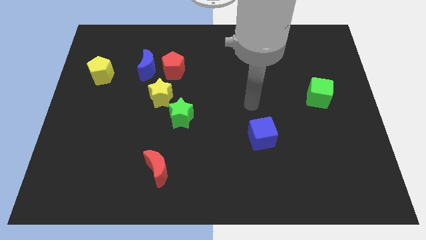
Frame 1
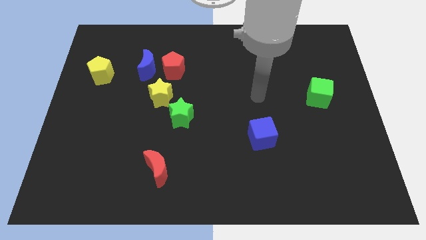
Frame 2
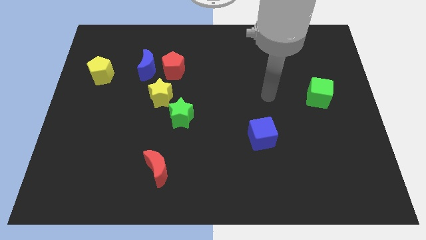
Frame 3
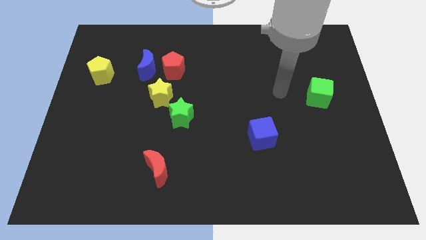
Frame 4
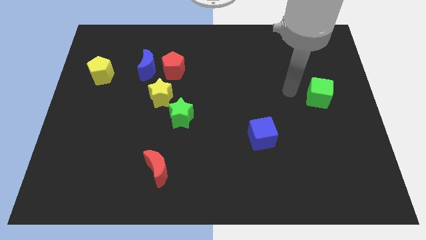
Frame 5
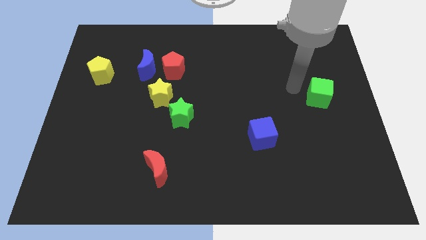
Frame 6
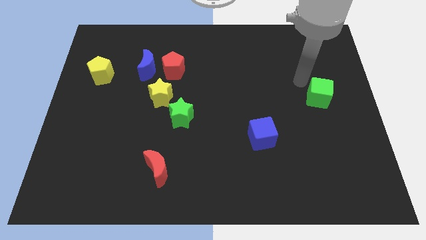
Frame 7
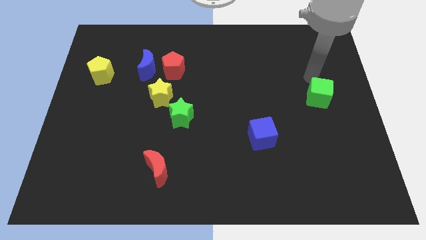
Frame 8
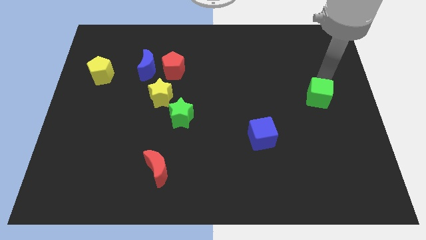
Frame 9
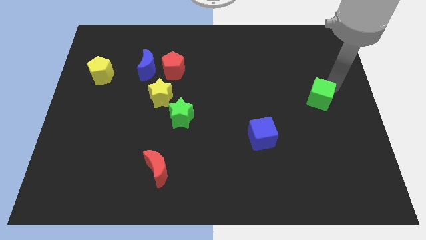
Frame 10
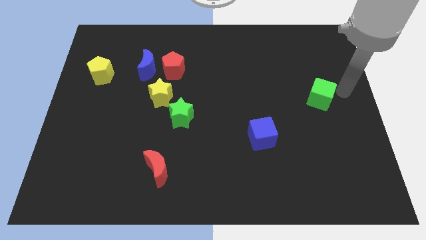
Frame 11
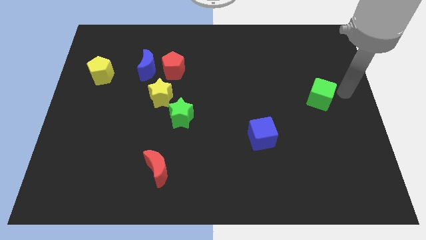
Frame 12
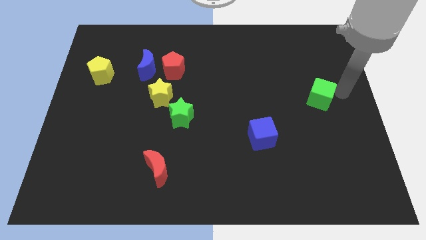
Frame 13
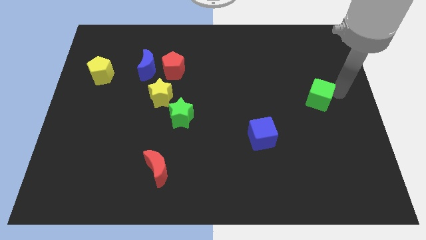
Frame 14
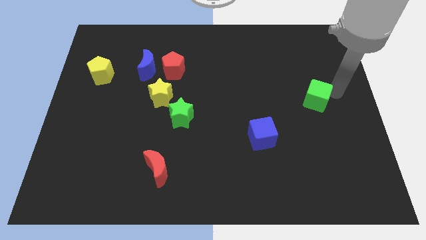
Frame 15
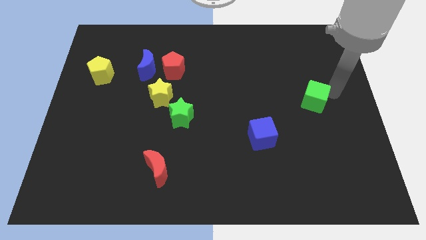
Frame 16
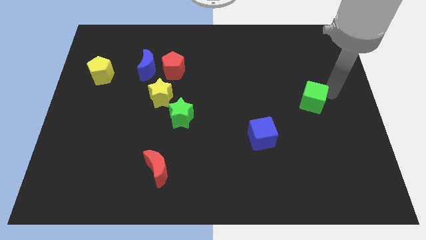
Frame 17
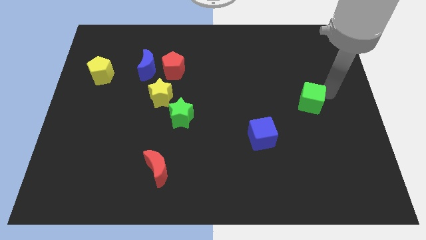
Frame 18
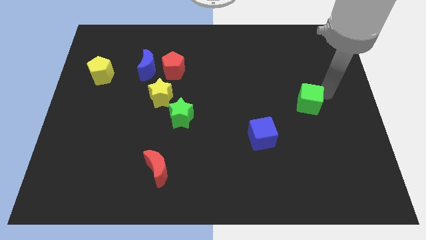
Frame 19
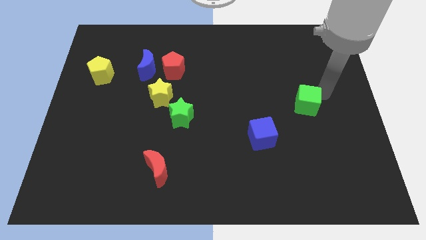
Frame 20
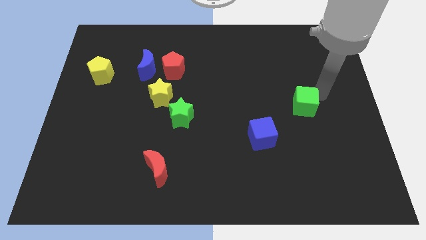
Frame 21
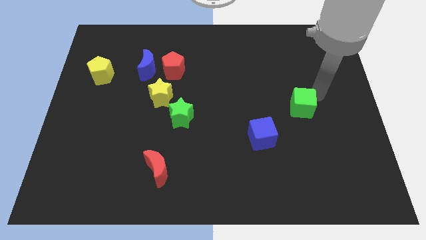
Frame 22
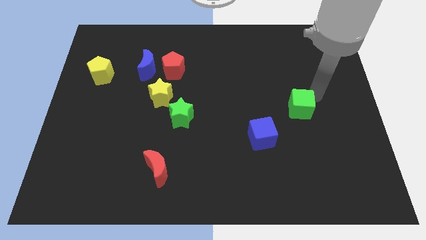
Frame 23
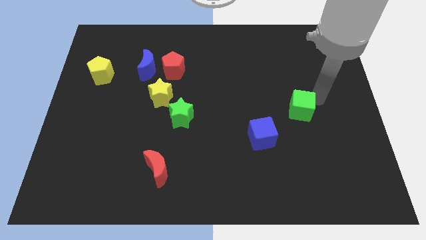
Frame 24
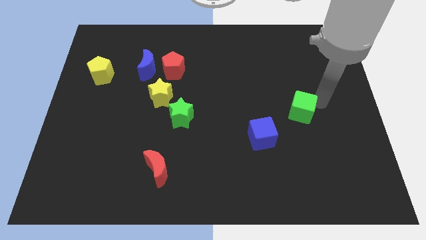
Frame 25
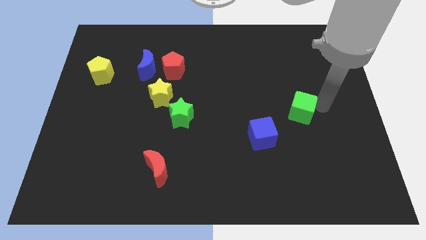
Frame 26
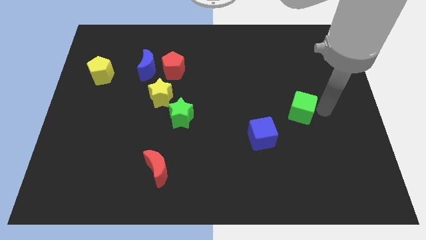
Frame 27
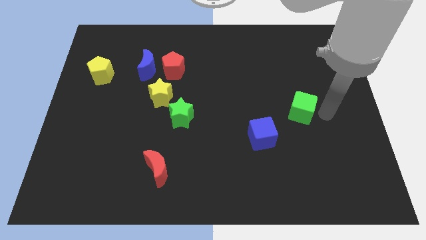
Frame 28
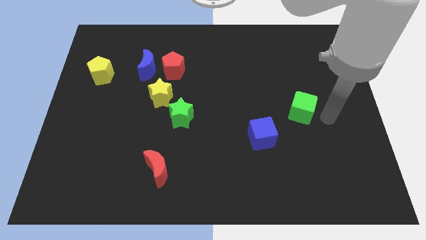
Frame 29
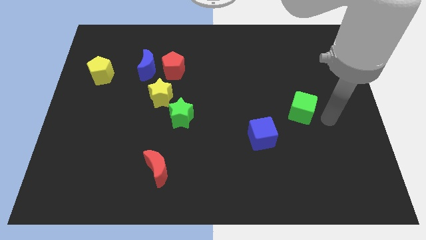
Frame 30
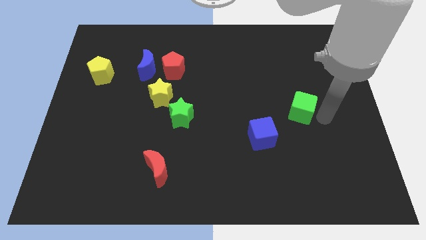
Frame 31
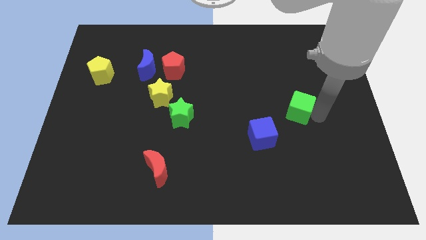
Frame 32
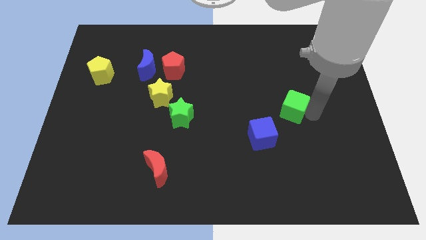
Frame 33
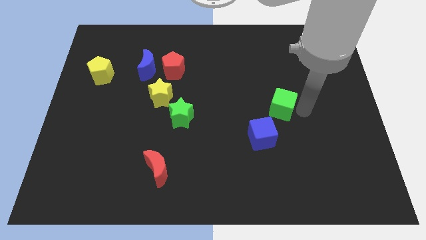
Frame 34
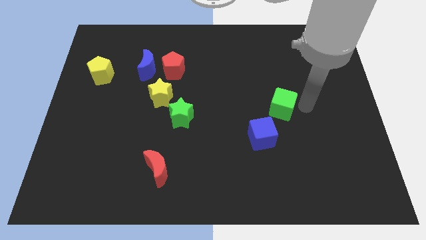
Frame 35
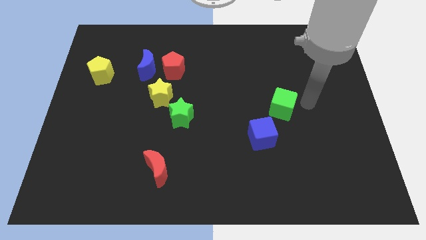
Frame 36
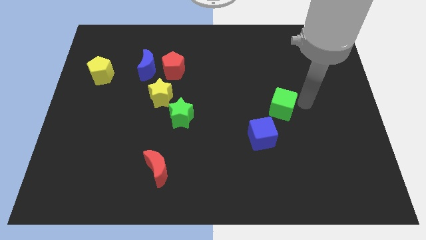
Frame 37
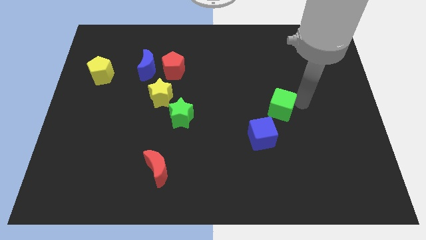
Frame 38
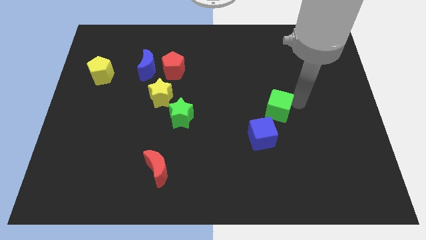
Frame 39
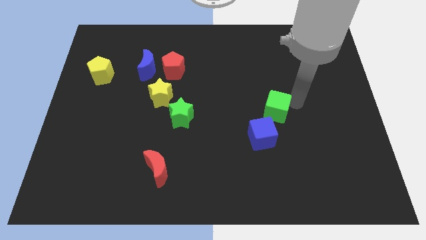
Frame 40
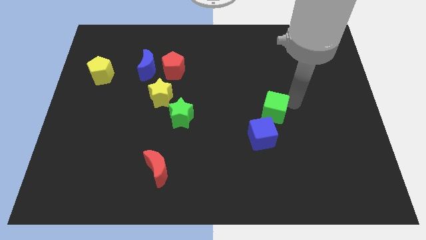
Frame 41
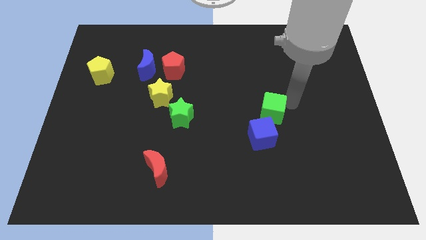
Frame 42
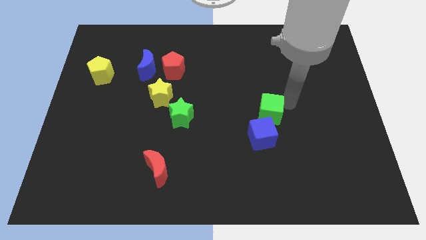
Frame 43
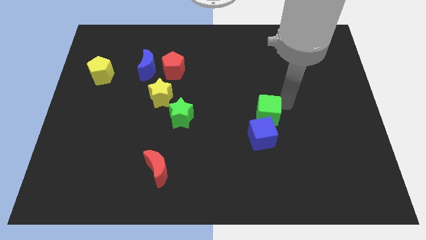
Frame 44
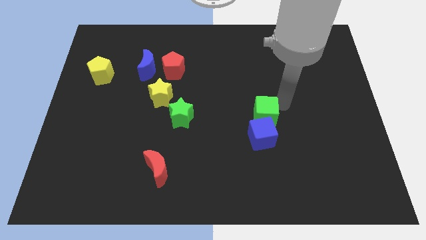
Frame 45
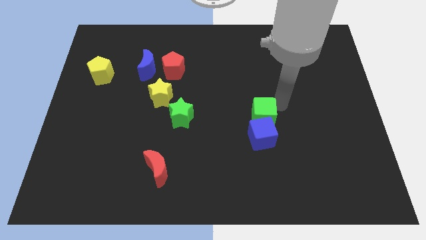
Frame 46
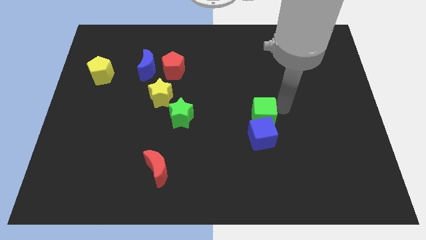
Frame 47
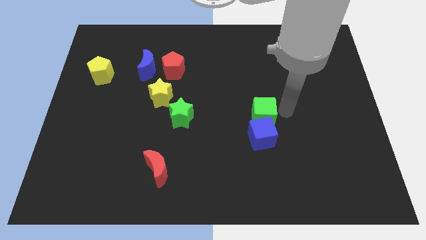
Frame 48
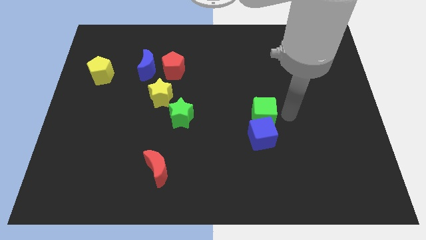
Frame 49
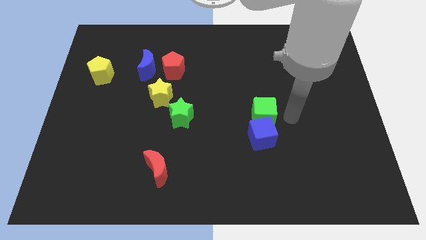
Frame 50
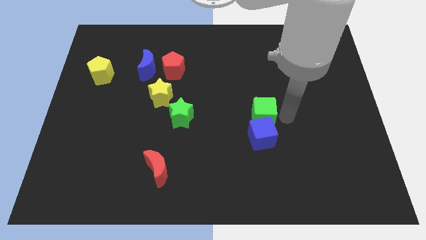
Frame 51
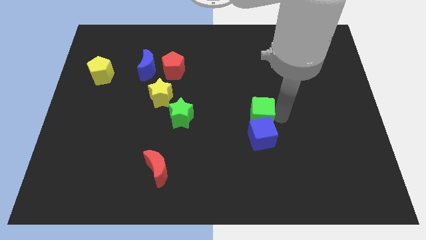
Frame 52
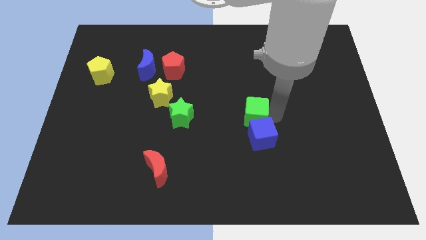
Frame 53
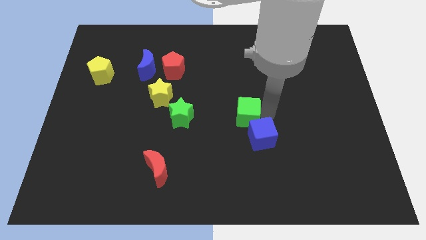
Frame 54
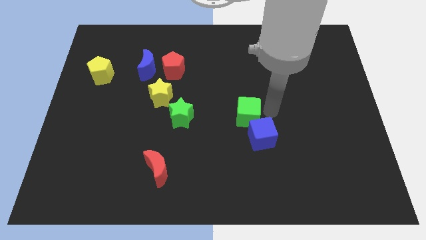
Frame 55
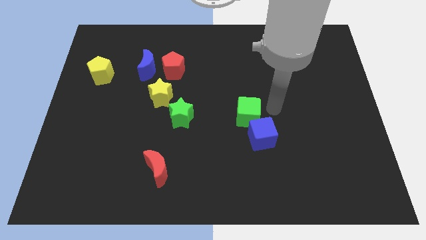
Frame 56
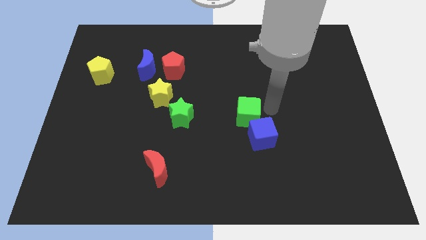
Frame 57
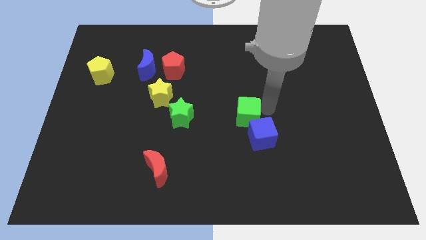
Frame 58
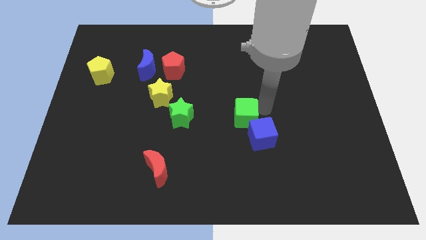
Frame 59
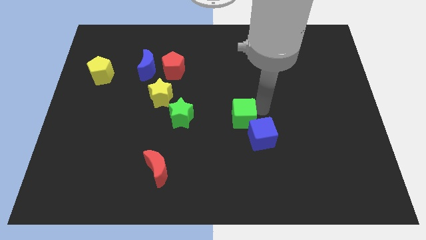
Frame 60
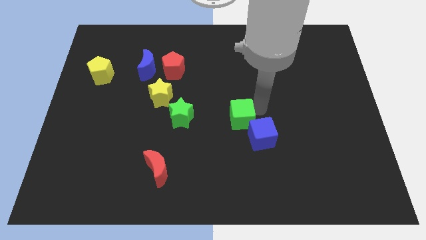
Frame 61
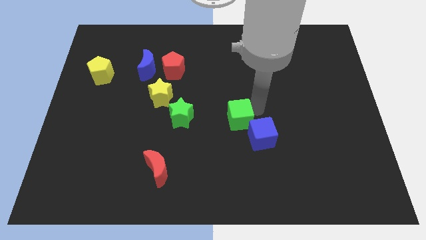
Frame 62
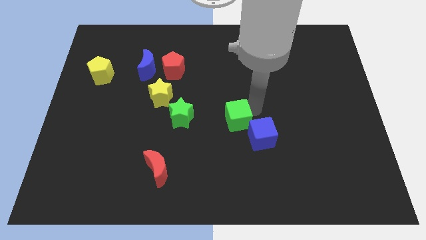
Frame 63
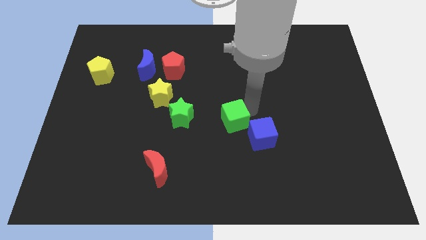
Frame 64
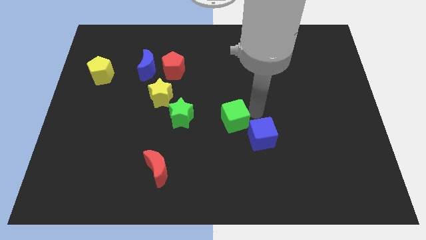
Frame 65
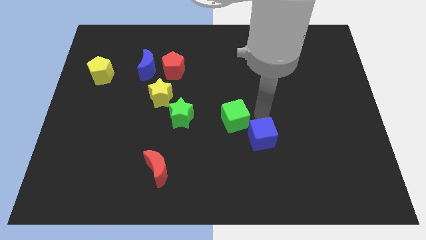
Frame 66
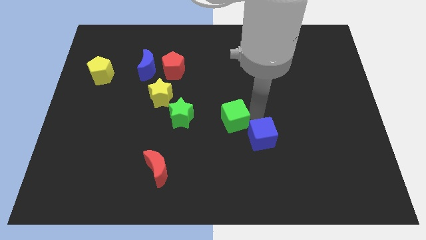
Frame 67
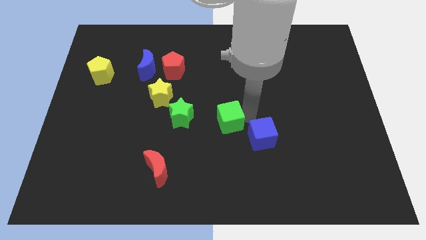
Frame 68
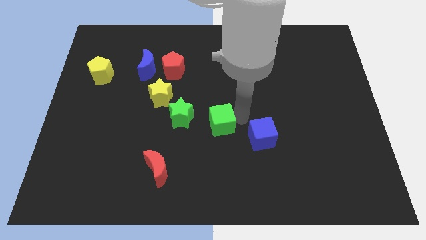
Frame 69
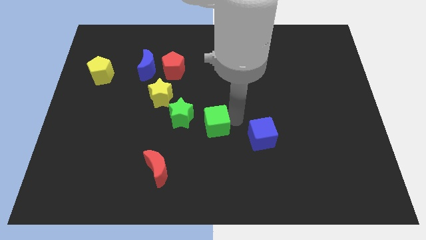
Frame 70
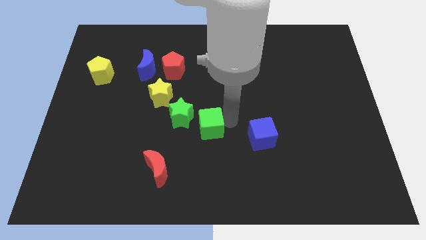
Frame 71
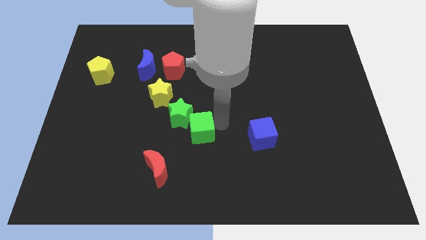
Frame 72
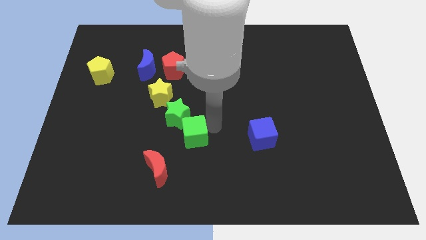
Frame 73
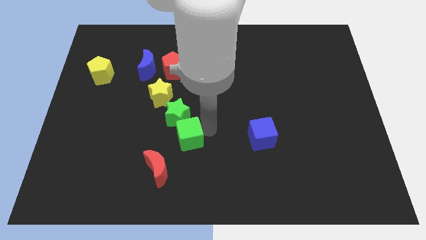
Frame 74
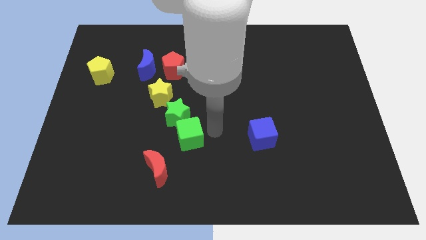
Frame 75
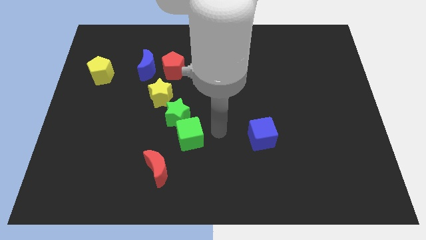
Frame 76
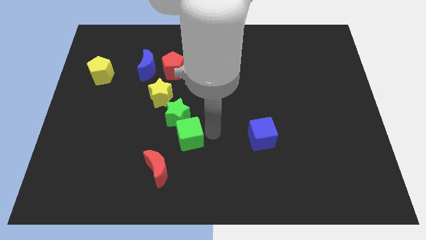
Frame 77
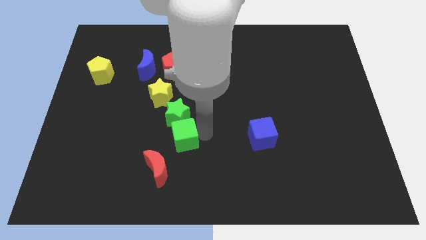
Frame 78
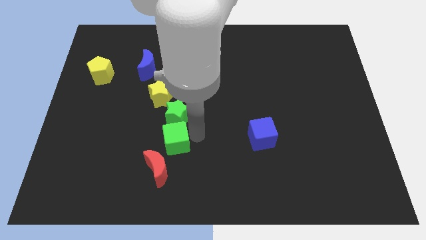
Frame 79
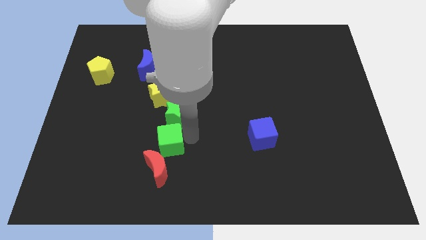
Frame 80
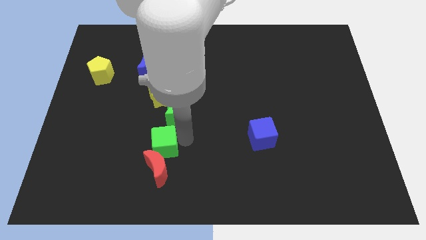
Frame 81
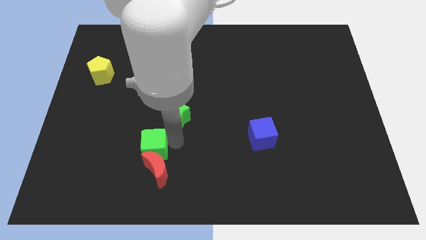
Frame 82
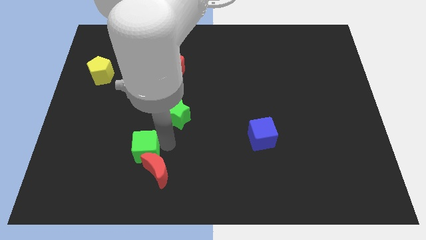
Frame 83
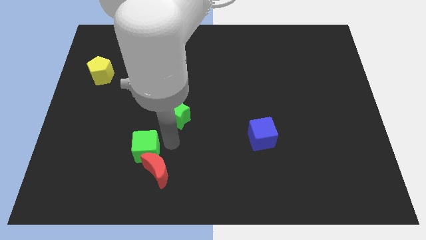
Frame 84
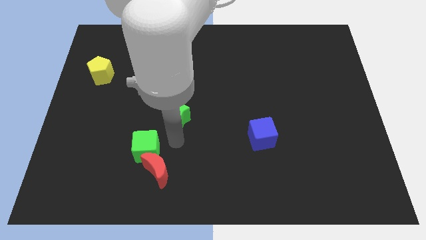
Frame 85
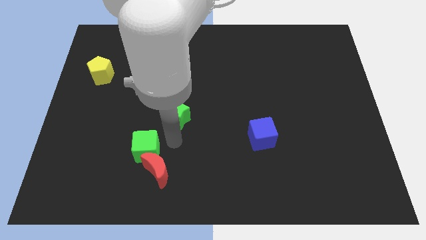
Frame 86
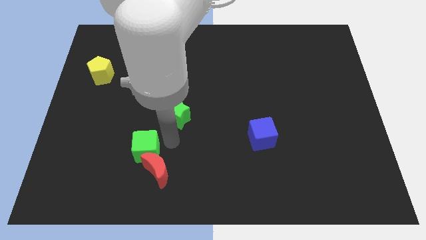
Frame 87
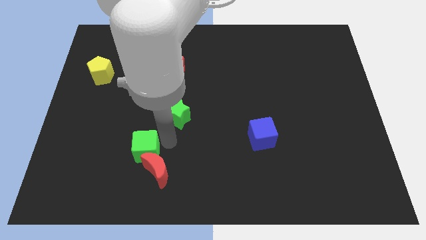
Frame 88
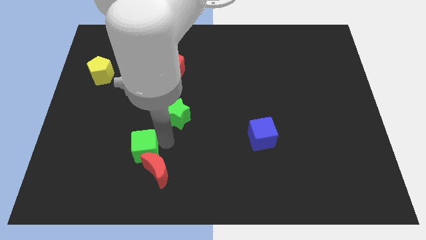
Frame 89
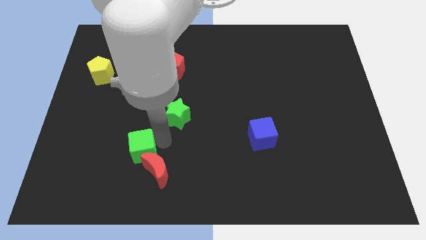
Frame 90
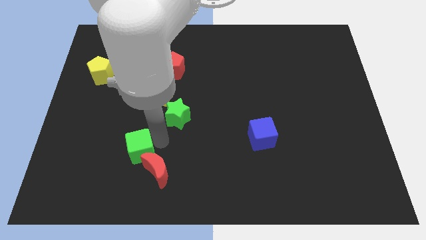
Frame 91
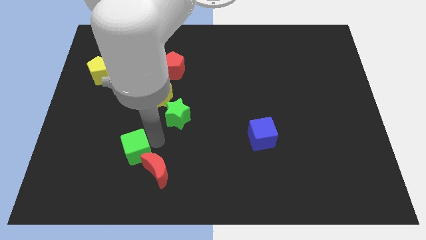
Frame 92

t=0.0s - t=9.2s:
put the green cube to the left of the red moon
